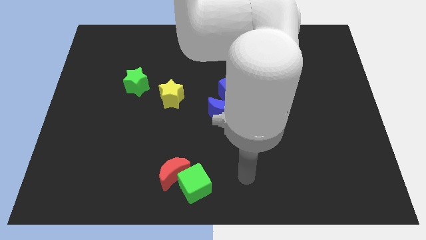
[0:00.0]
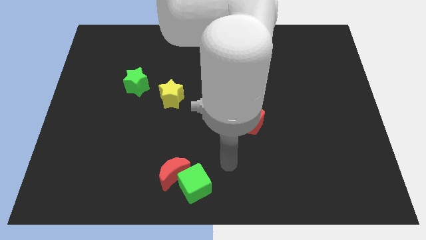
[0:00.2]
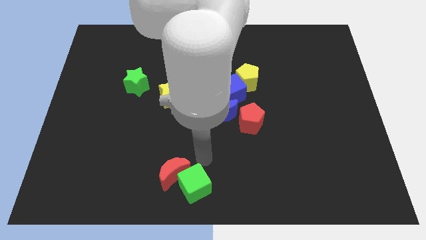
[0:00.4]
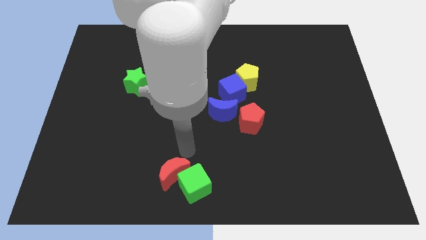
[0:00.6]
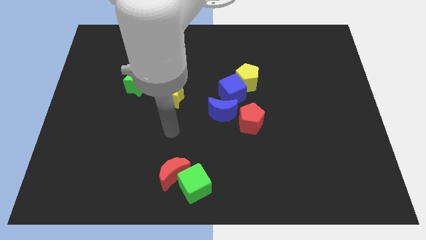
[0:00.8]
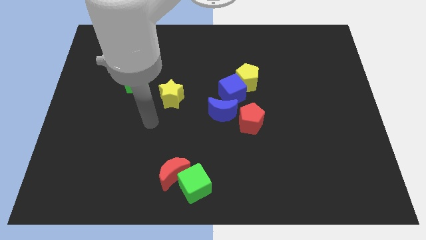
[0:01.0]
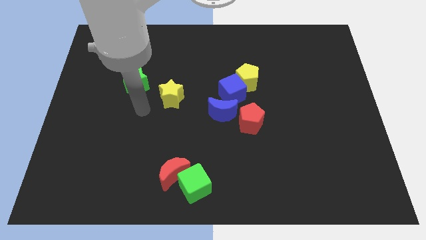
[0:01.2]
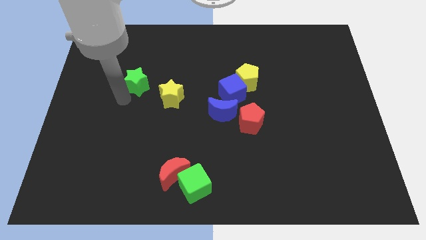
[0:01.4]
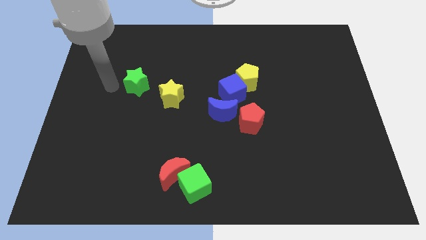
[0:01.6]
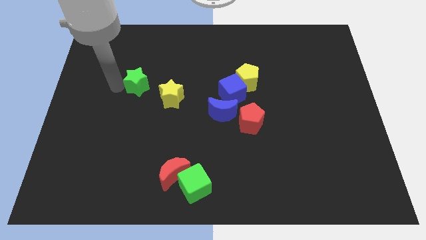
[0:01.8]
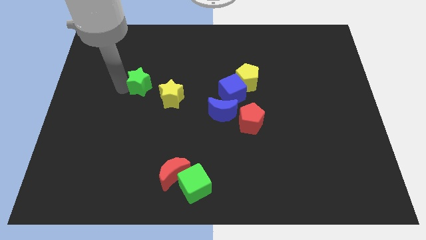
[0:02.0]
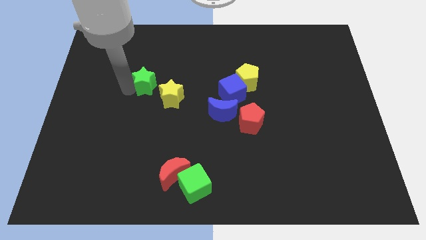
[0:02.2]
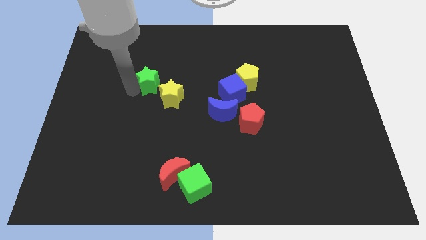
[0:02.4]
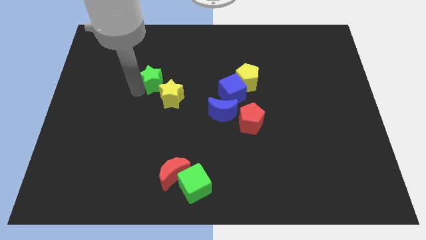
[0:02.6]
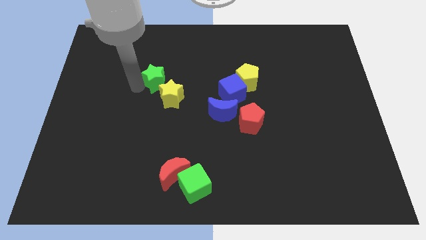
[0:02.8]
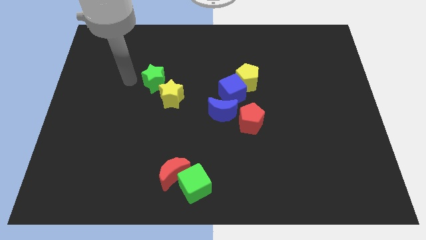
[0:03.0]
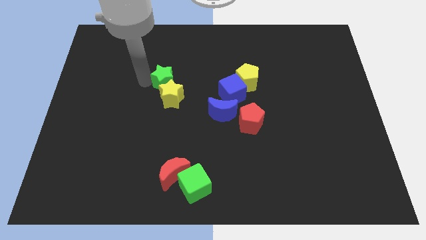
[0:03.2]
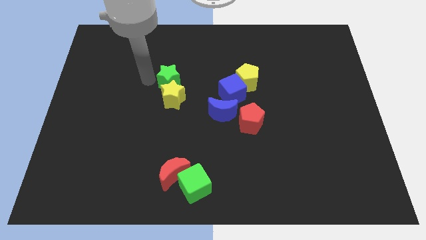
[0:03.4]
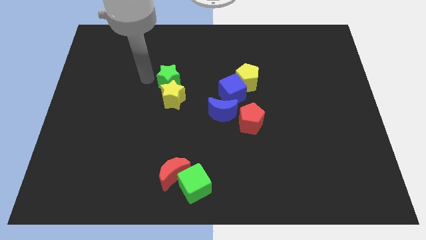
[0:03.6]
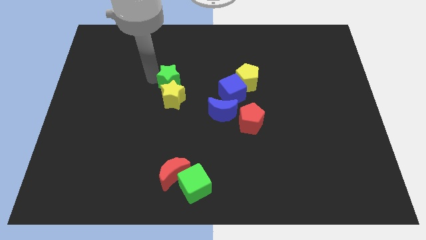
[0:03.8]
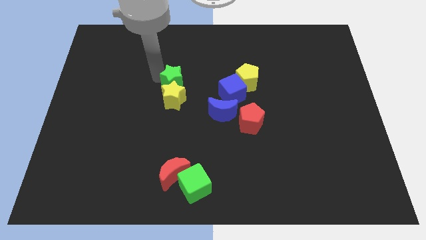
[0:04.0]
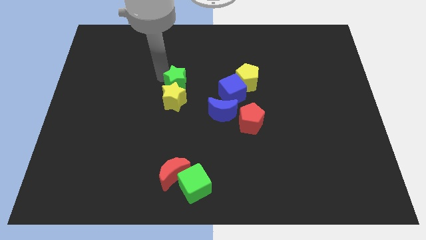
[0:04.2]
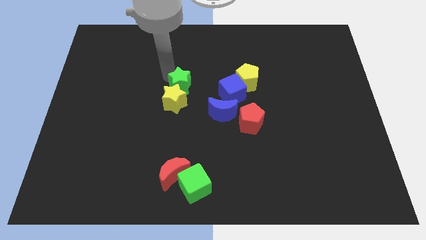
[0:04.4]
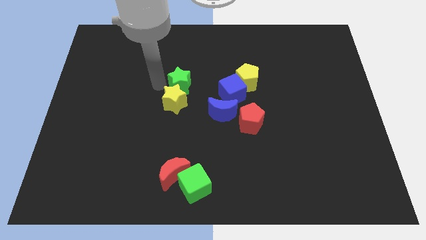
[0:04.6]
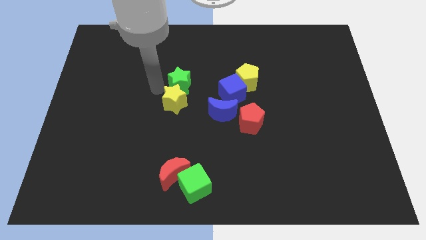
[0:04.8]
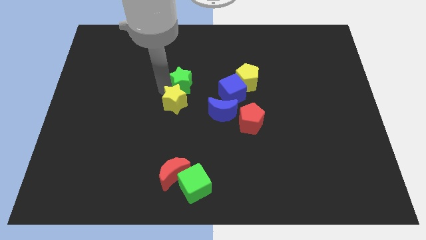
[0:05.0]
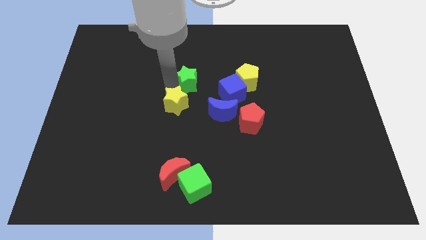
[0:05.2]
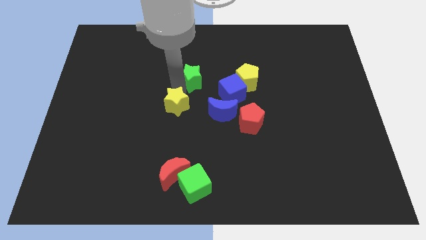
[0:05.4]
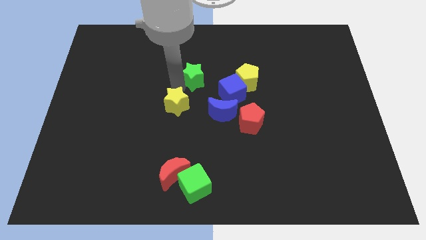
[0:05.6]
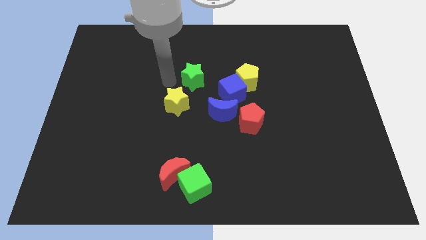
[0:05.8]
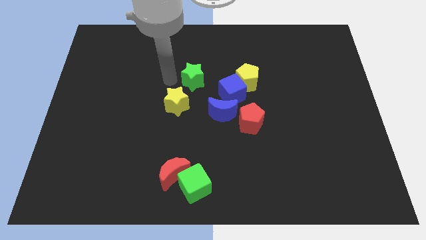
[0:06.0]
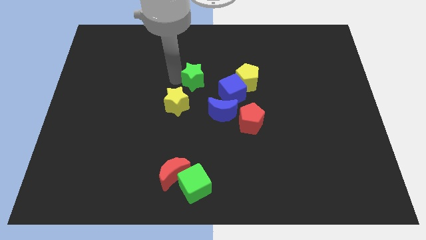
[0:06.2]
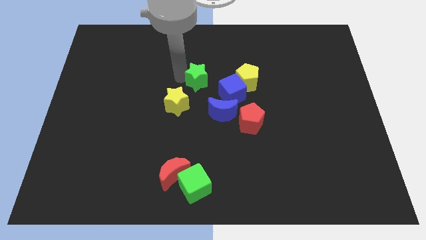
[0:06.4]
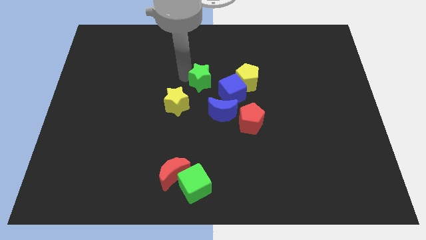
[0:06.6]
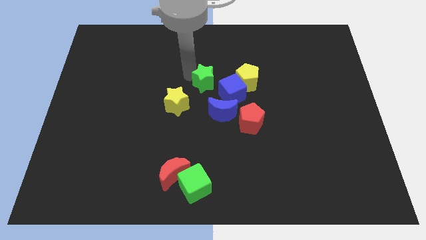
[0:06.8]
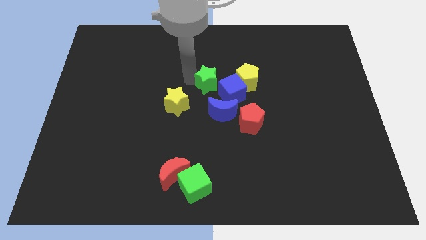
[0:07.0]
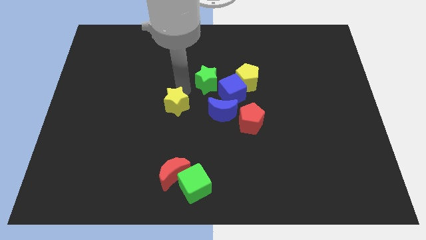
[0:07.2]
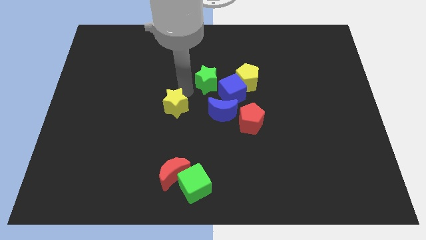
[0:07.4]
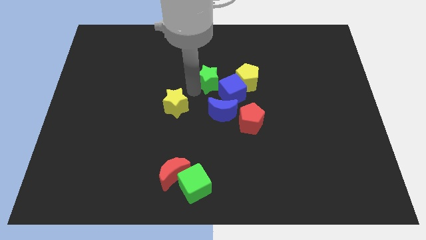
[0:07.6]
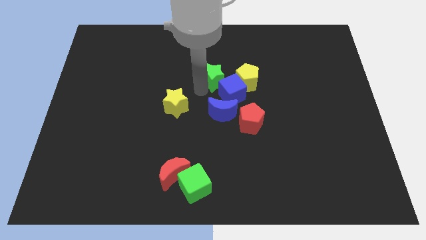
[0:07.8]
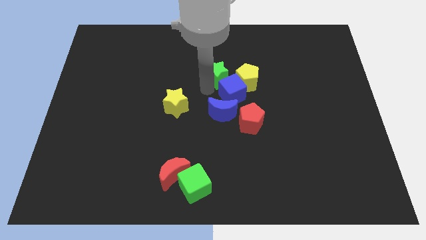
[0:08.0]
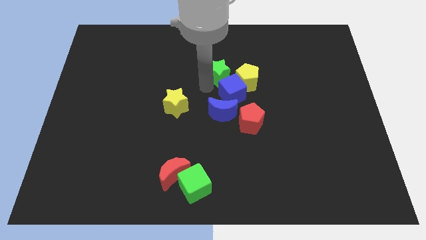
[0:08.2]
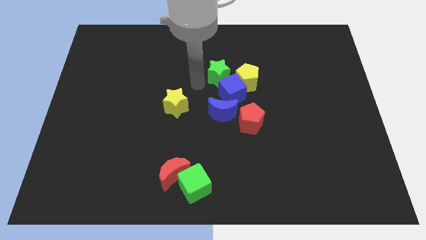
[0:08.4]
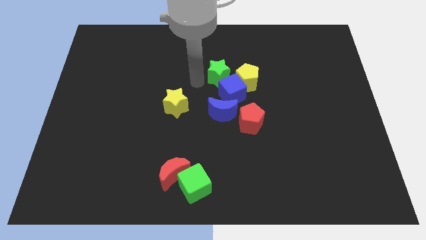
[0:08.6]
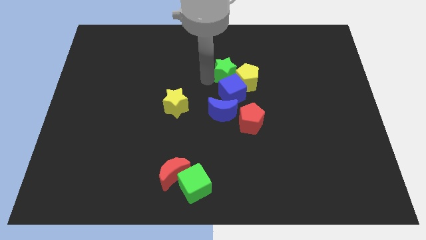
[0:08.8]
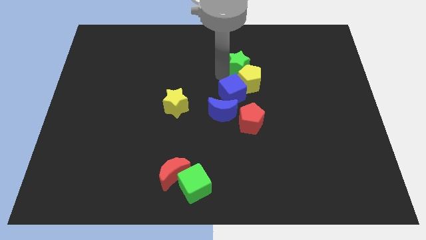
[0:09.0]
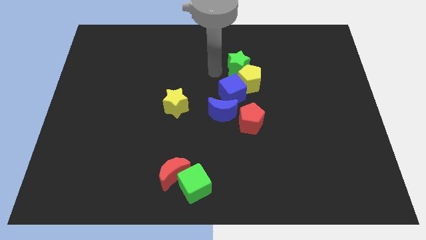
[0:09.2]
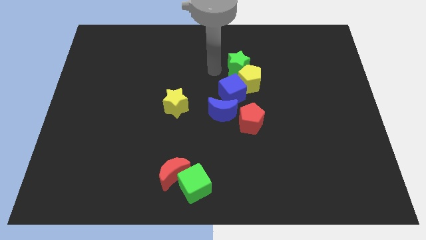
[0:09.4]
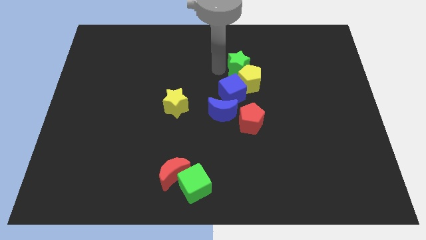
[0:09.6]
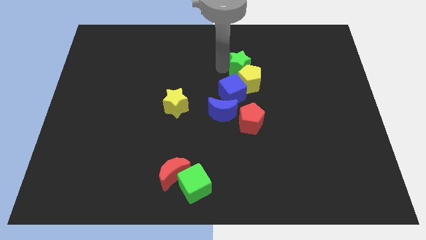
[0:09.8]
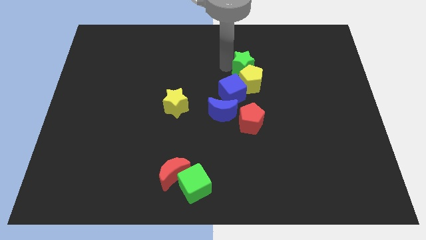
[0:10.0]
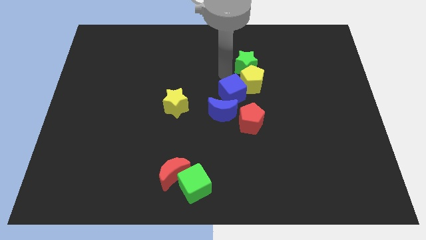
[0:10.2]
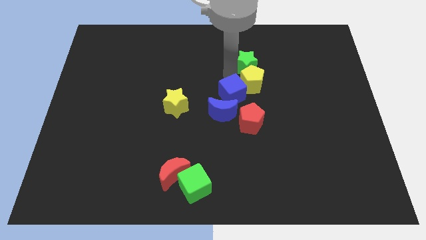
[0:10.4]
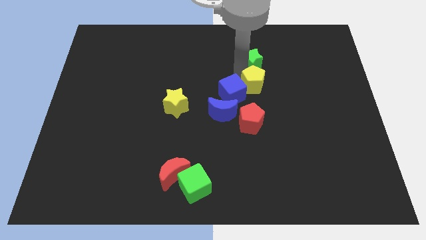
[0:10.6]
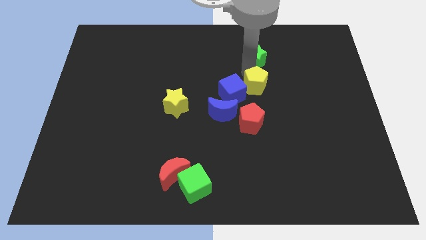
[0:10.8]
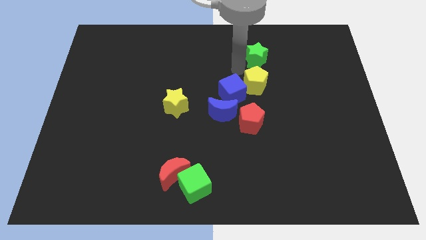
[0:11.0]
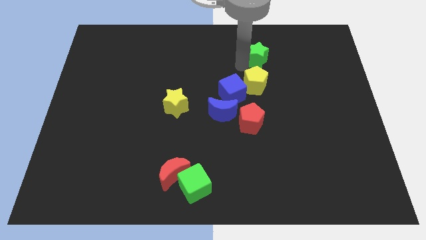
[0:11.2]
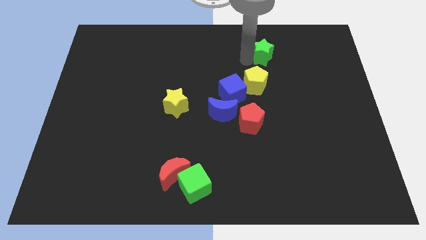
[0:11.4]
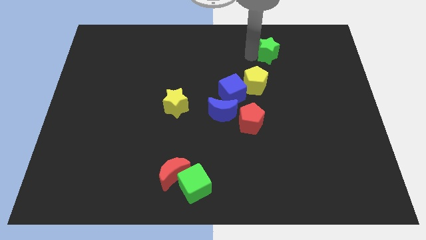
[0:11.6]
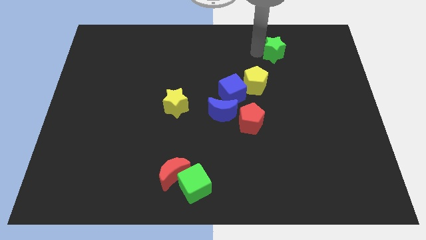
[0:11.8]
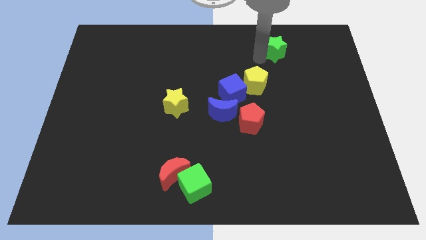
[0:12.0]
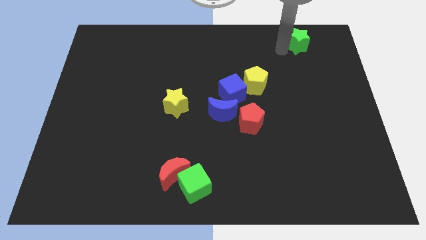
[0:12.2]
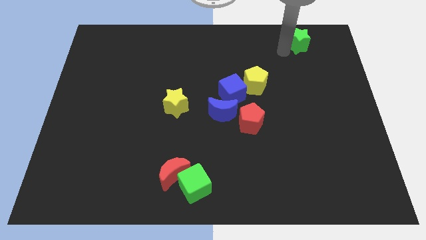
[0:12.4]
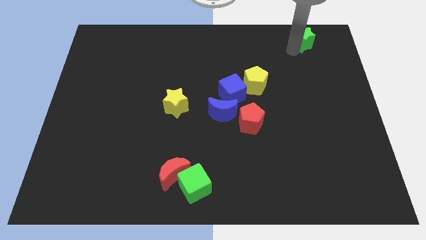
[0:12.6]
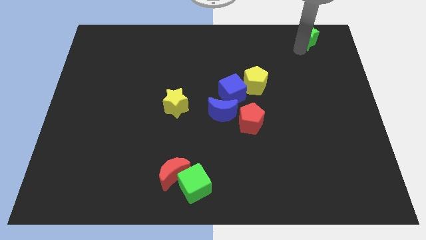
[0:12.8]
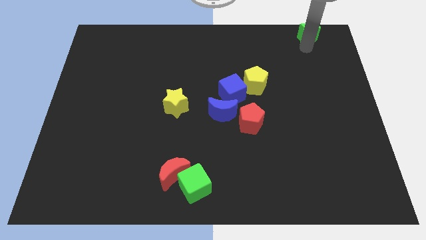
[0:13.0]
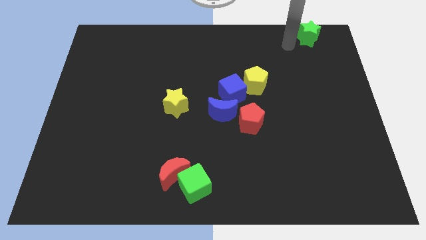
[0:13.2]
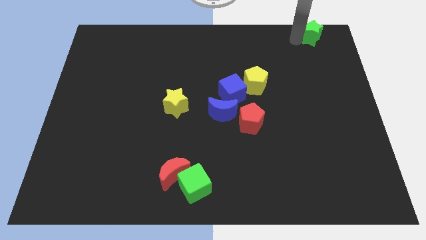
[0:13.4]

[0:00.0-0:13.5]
slide the green star to the top right
